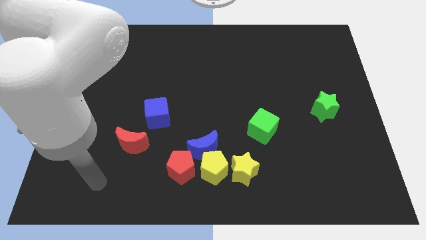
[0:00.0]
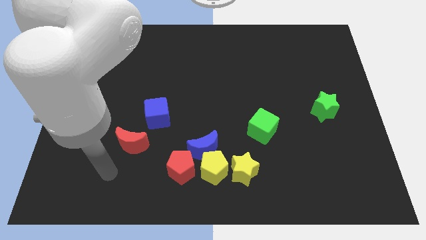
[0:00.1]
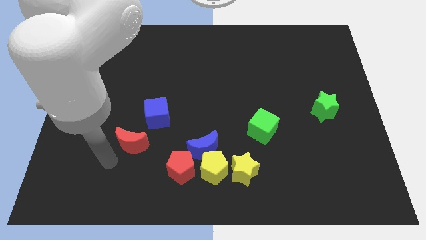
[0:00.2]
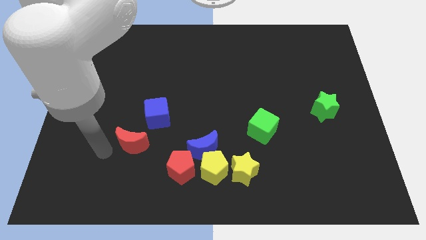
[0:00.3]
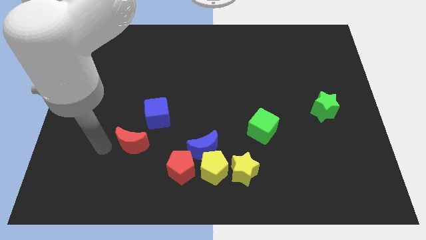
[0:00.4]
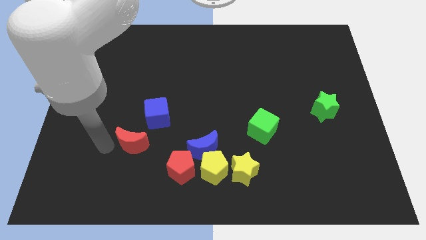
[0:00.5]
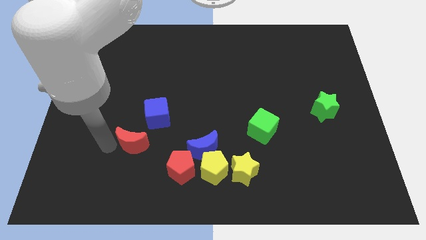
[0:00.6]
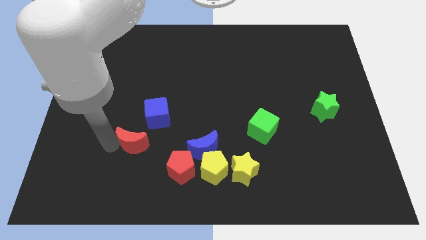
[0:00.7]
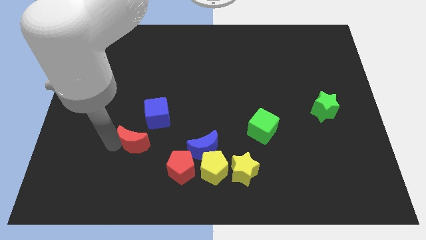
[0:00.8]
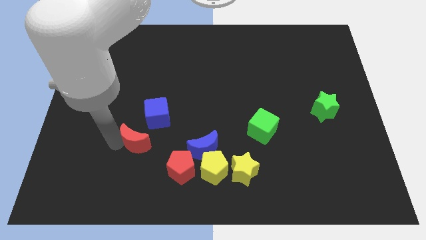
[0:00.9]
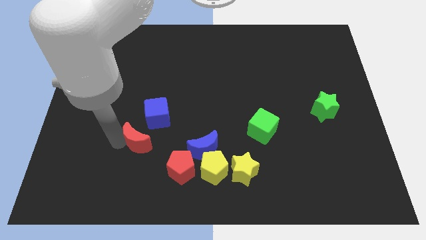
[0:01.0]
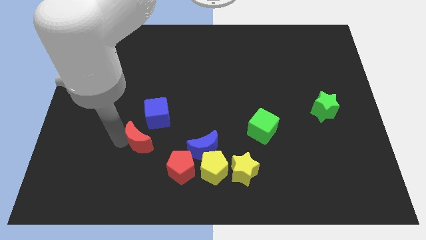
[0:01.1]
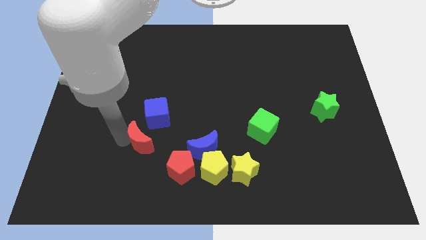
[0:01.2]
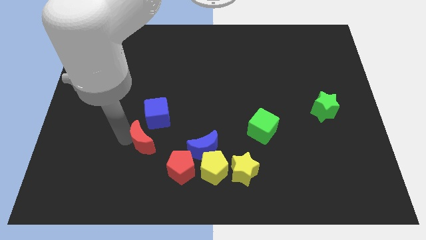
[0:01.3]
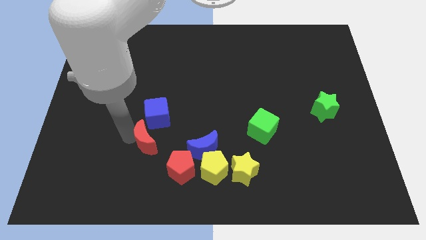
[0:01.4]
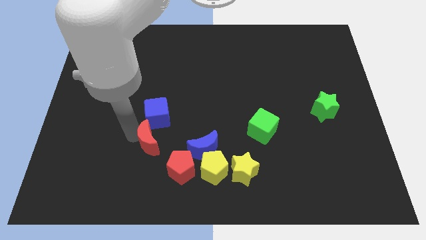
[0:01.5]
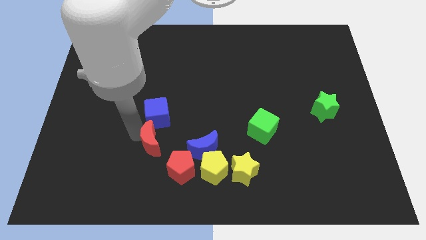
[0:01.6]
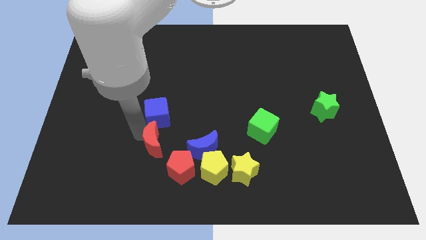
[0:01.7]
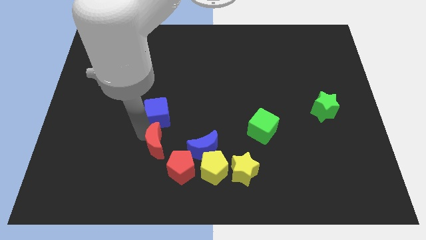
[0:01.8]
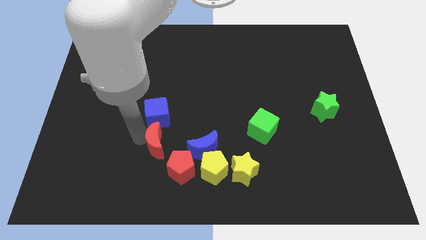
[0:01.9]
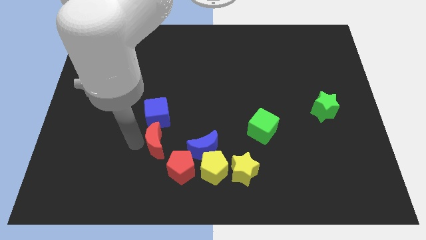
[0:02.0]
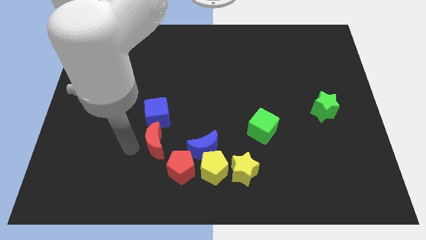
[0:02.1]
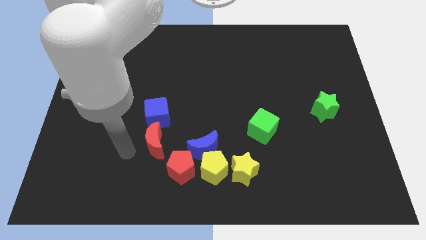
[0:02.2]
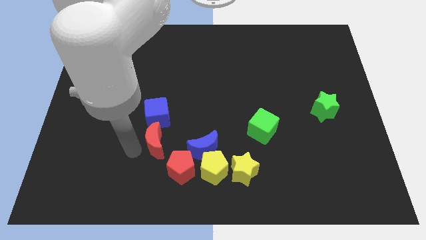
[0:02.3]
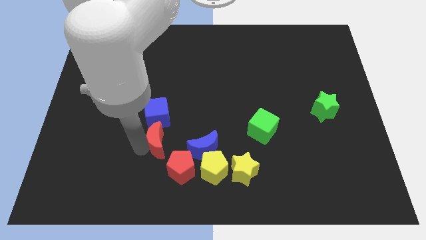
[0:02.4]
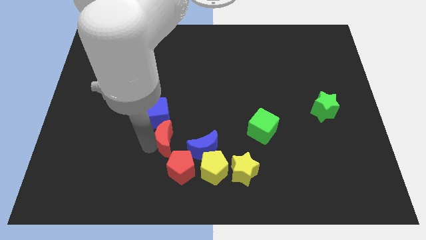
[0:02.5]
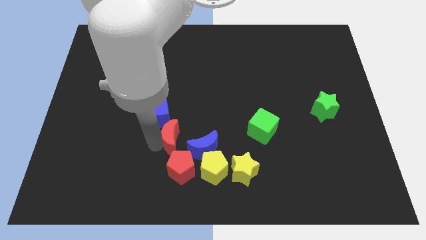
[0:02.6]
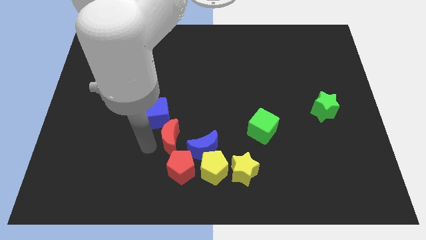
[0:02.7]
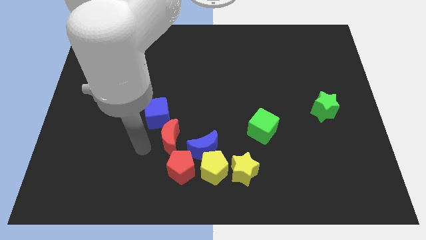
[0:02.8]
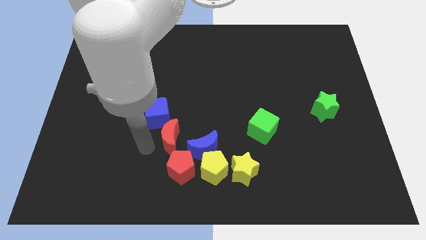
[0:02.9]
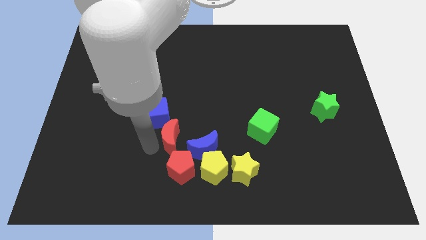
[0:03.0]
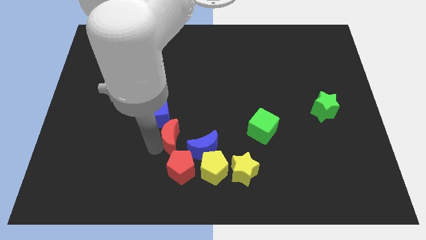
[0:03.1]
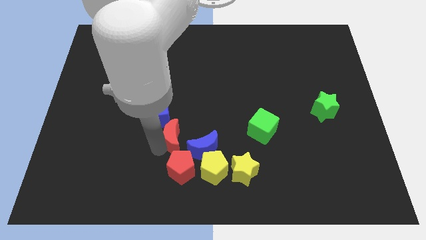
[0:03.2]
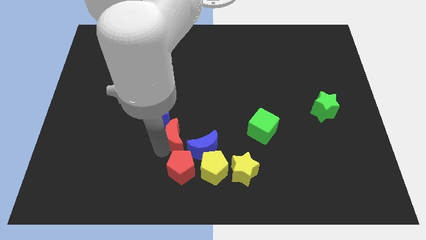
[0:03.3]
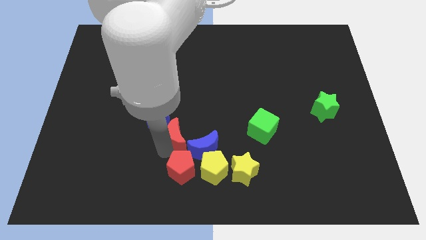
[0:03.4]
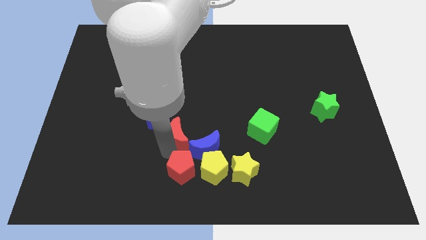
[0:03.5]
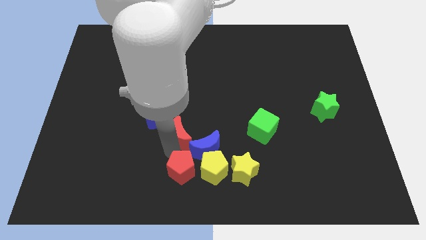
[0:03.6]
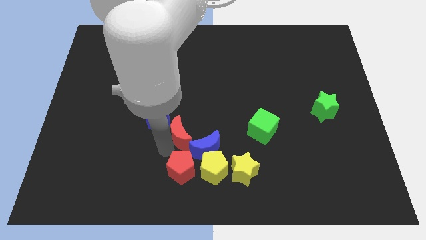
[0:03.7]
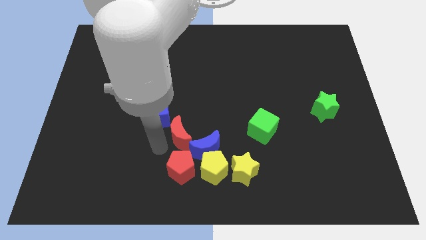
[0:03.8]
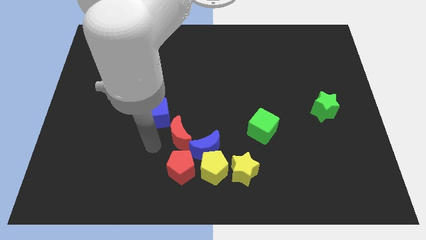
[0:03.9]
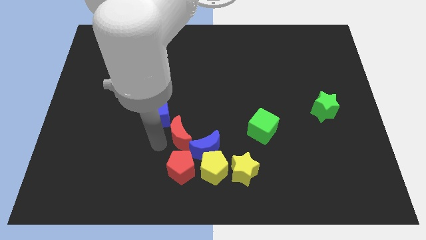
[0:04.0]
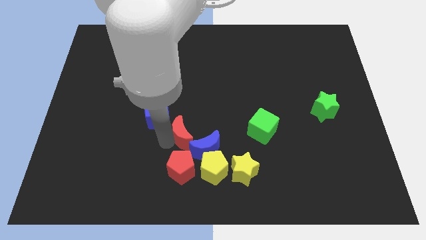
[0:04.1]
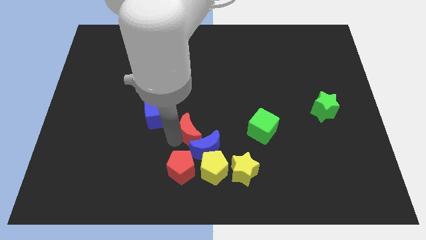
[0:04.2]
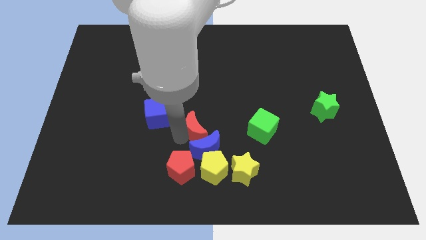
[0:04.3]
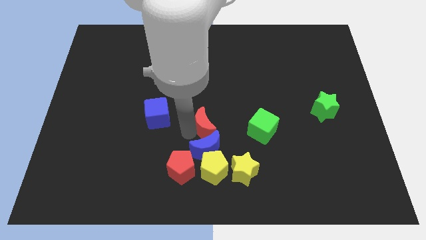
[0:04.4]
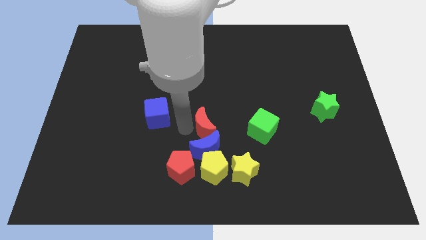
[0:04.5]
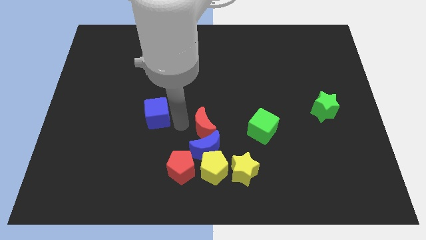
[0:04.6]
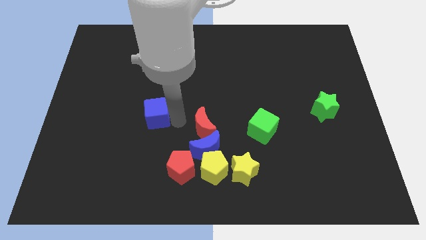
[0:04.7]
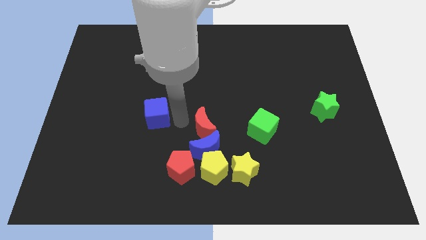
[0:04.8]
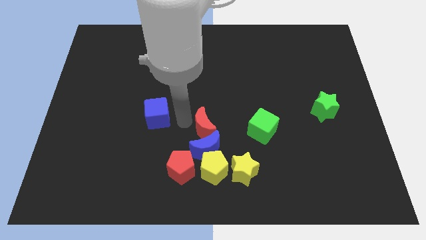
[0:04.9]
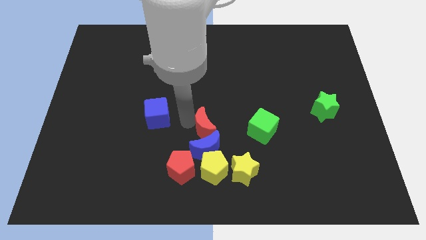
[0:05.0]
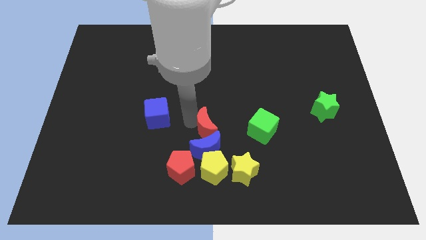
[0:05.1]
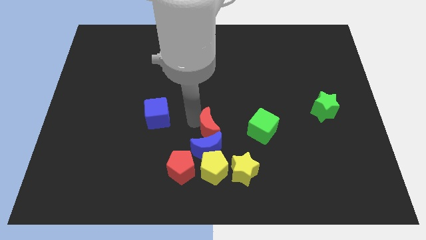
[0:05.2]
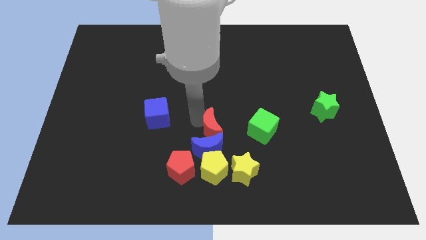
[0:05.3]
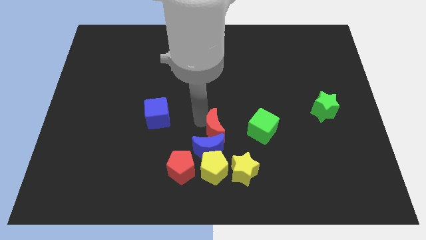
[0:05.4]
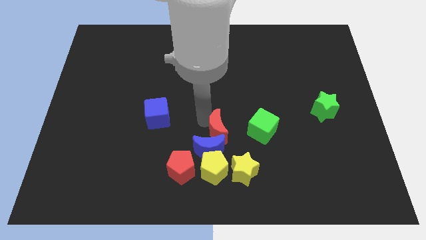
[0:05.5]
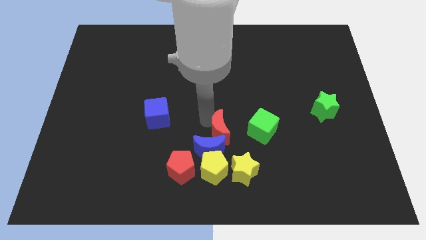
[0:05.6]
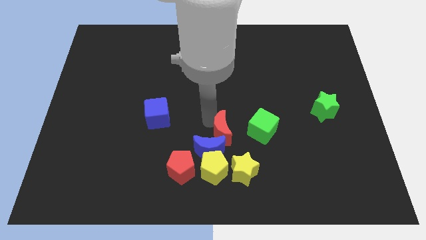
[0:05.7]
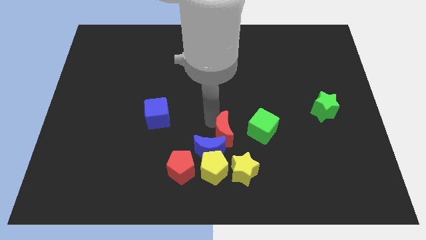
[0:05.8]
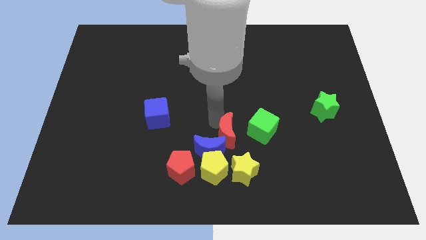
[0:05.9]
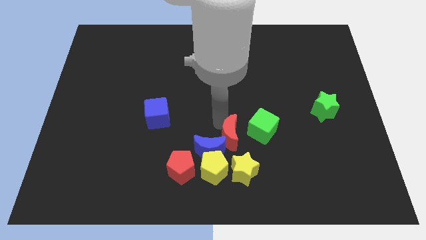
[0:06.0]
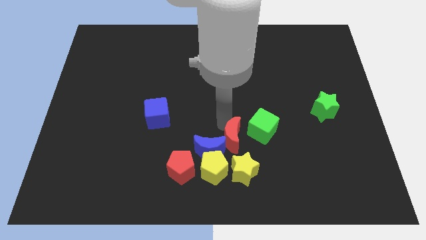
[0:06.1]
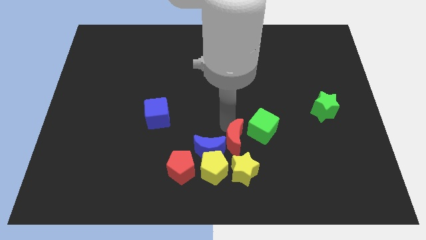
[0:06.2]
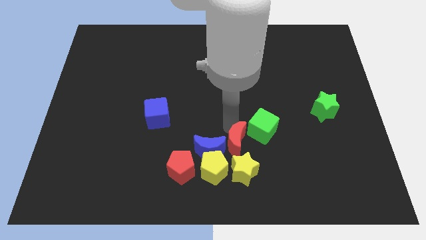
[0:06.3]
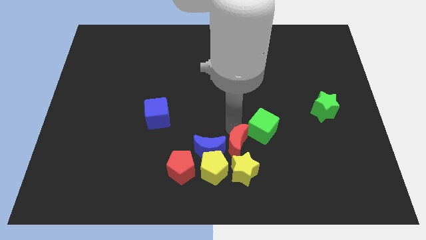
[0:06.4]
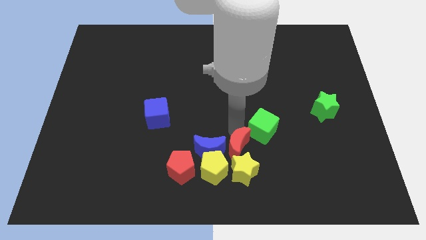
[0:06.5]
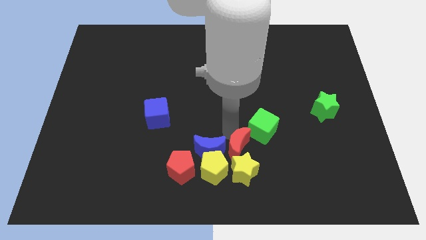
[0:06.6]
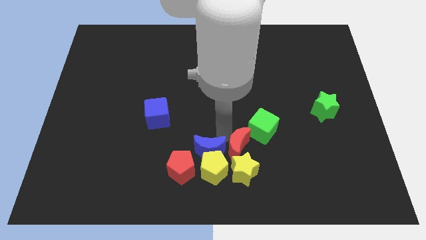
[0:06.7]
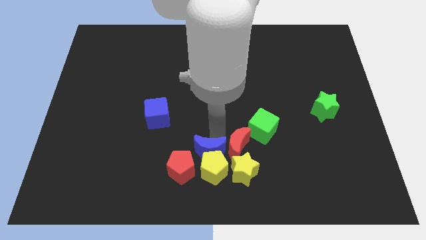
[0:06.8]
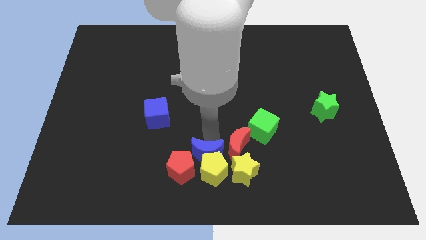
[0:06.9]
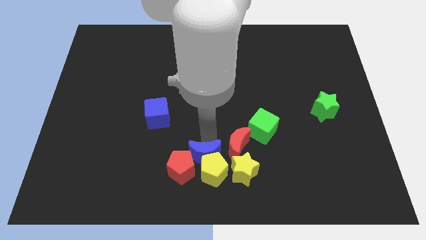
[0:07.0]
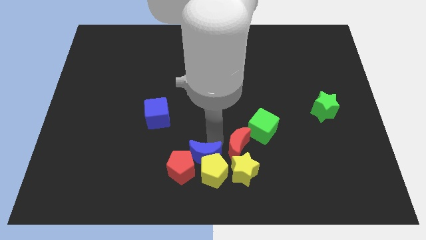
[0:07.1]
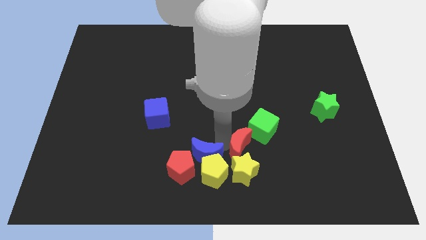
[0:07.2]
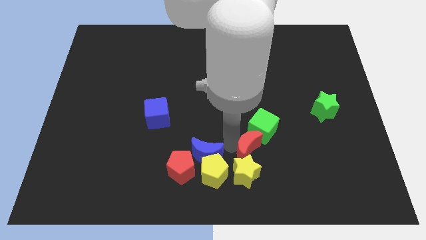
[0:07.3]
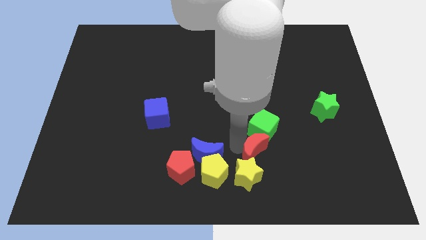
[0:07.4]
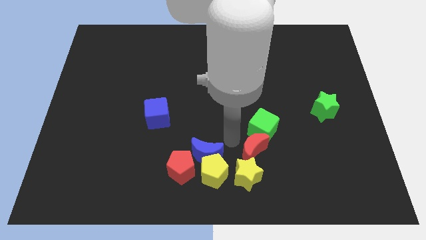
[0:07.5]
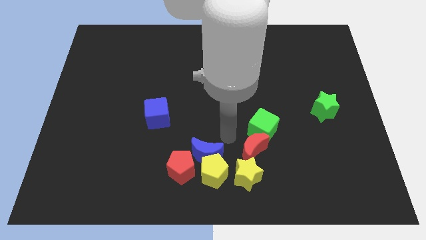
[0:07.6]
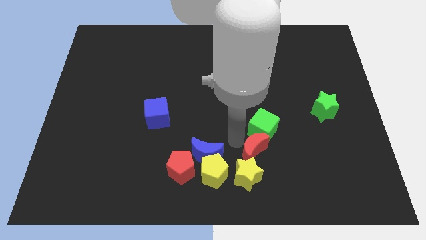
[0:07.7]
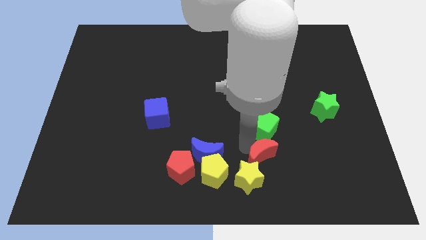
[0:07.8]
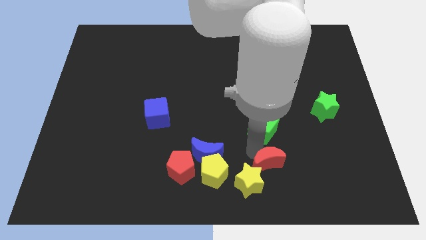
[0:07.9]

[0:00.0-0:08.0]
push the red moon to the right side of the yellow star
